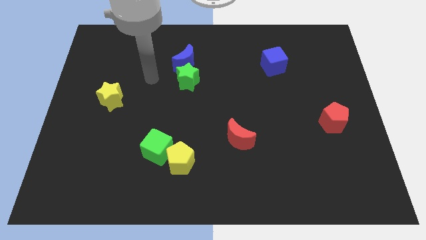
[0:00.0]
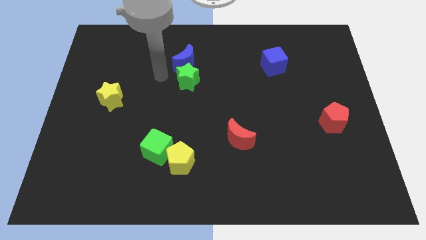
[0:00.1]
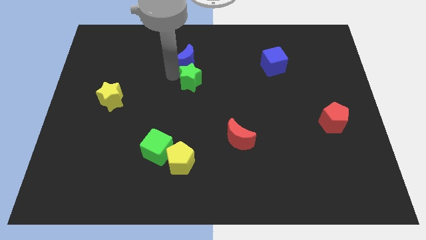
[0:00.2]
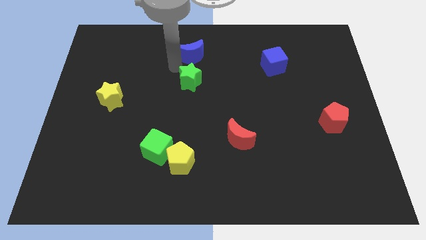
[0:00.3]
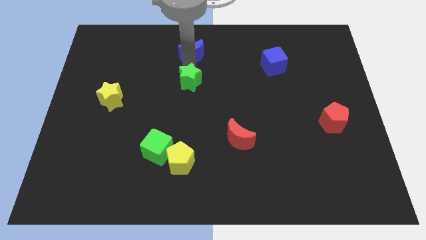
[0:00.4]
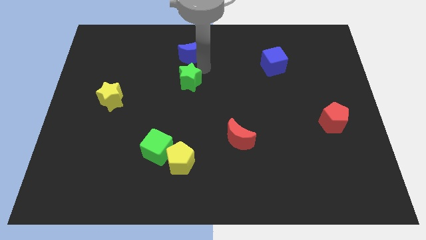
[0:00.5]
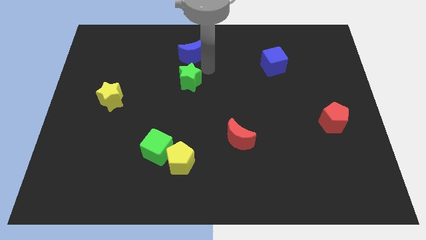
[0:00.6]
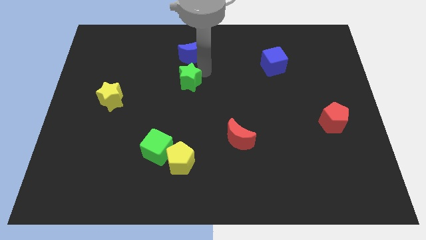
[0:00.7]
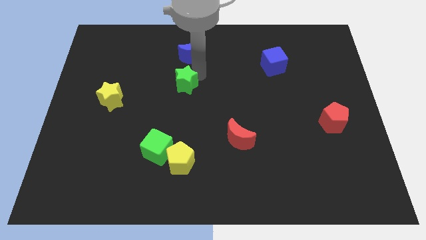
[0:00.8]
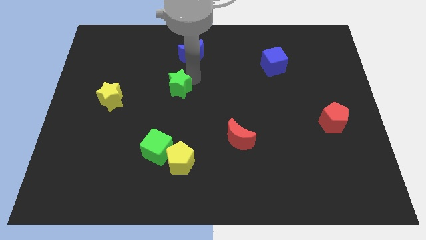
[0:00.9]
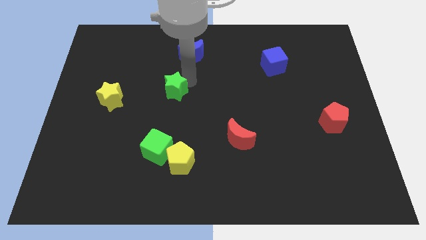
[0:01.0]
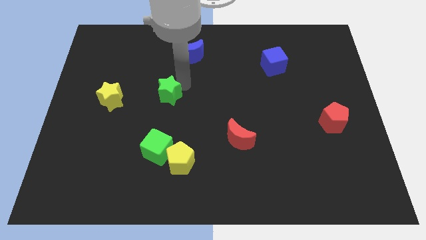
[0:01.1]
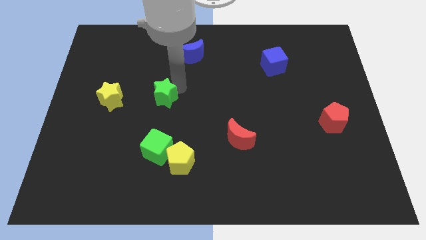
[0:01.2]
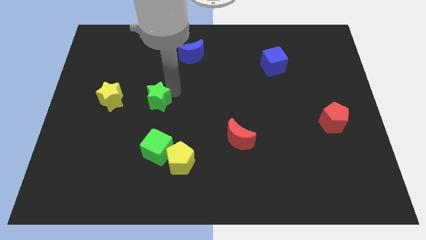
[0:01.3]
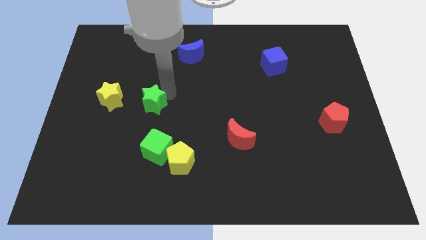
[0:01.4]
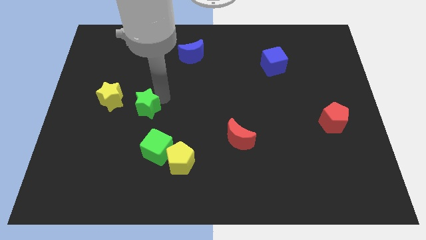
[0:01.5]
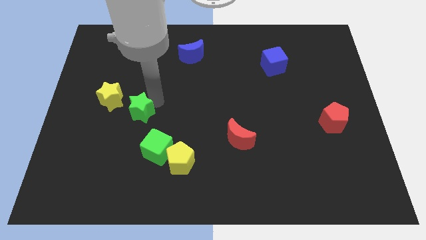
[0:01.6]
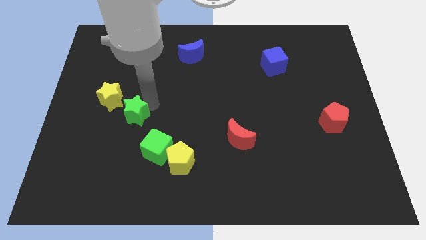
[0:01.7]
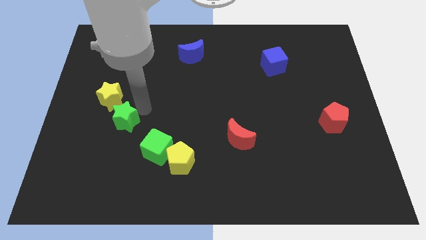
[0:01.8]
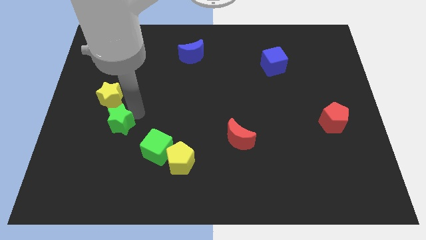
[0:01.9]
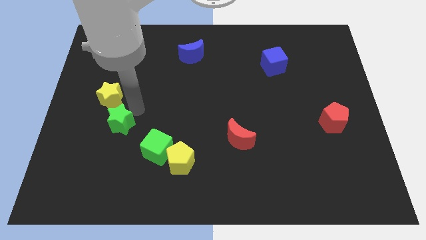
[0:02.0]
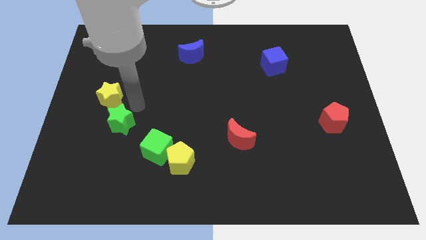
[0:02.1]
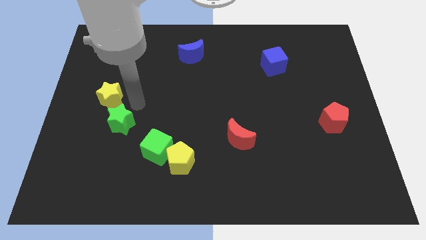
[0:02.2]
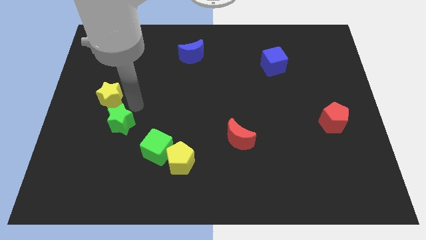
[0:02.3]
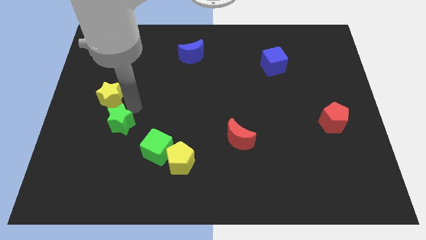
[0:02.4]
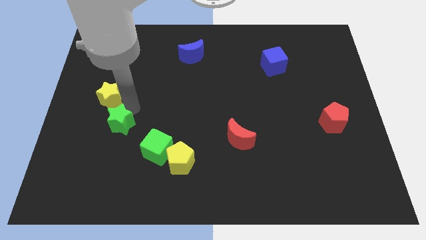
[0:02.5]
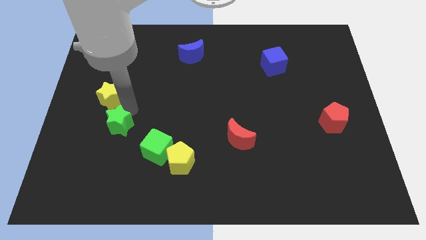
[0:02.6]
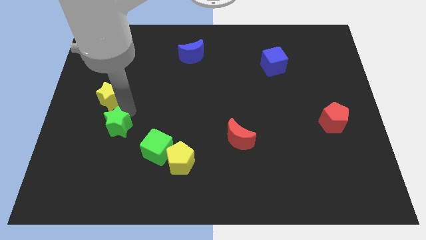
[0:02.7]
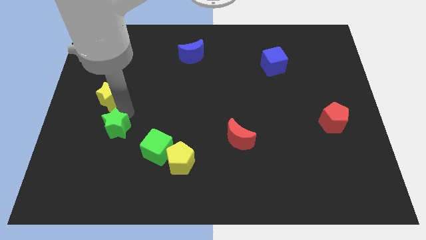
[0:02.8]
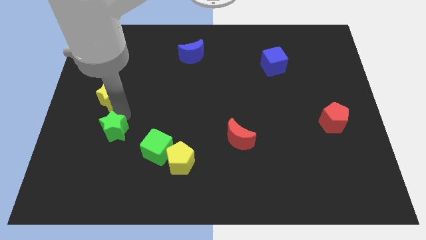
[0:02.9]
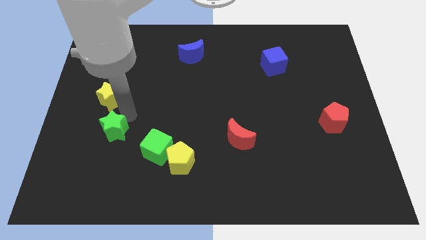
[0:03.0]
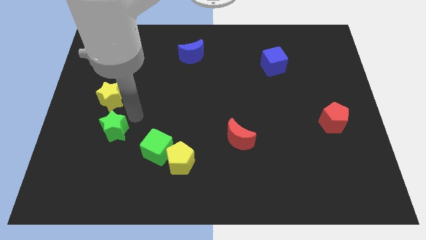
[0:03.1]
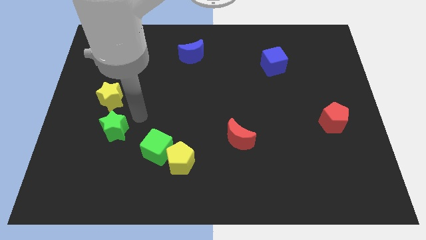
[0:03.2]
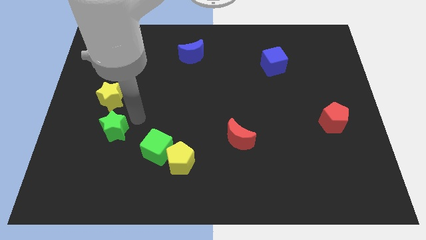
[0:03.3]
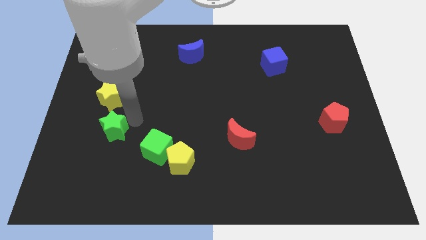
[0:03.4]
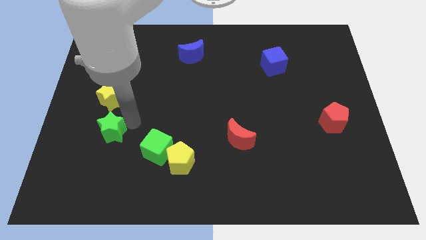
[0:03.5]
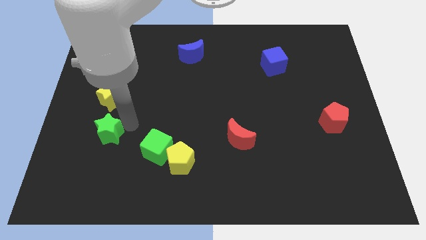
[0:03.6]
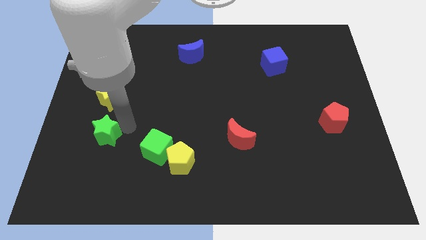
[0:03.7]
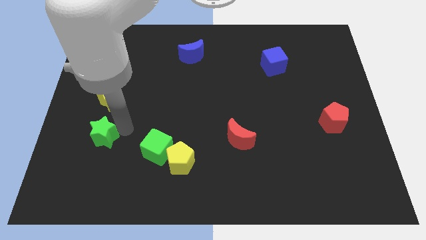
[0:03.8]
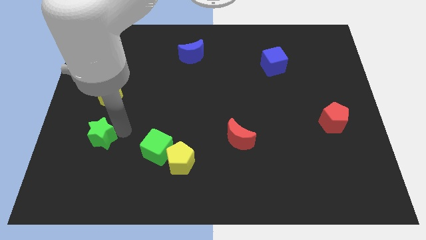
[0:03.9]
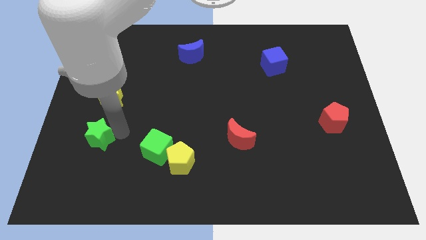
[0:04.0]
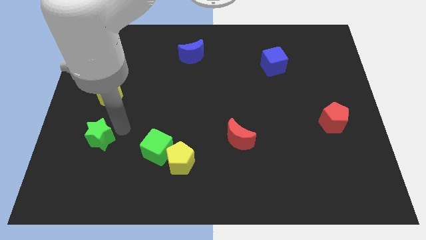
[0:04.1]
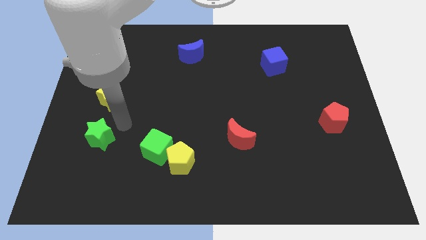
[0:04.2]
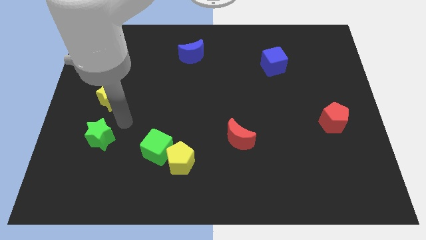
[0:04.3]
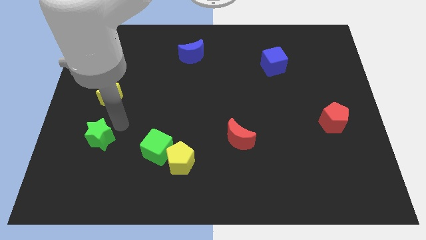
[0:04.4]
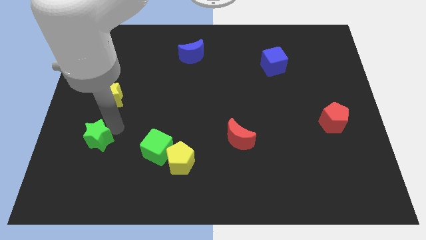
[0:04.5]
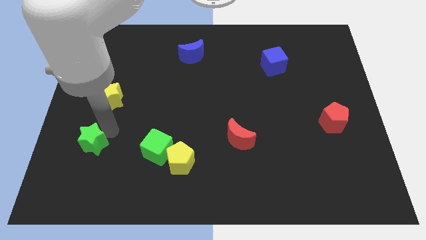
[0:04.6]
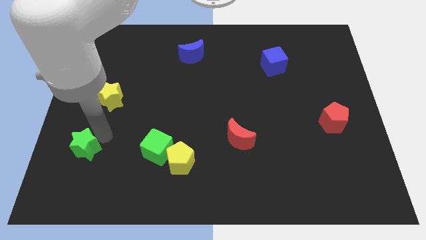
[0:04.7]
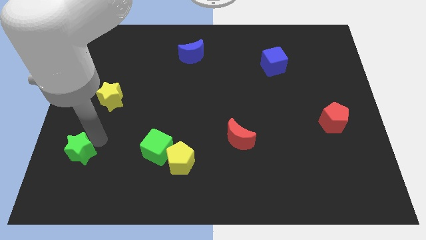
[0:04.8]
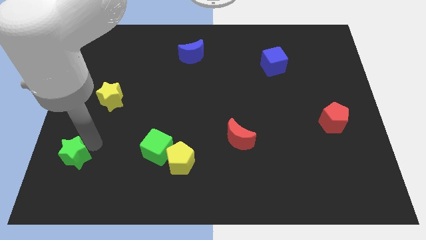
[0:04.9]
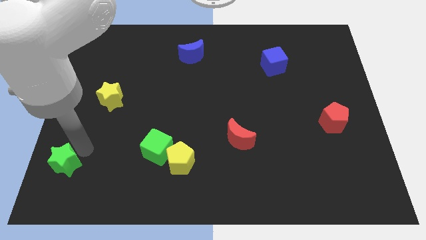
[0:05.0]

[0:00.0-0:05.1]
push the green star to the lower left corner
